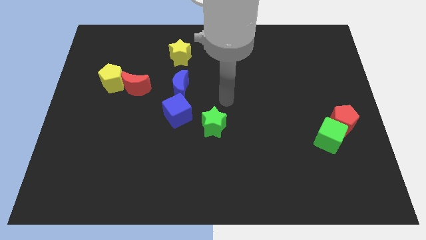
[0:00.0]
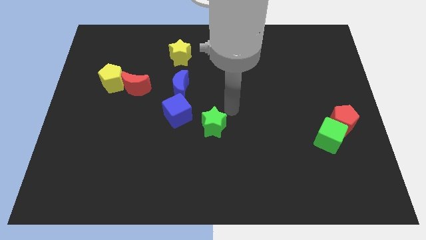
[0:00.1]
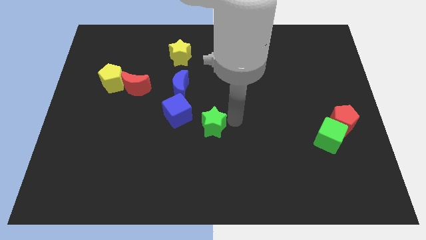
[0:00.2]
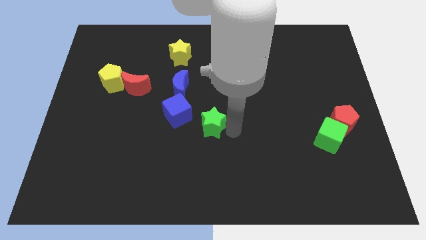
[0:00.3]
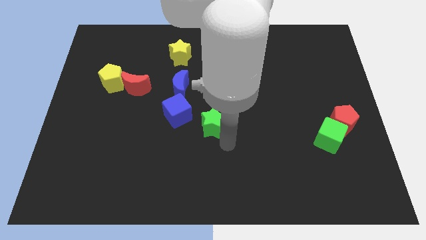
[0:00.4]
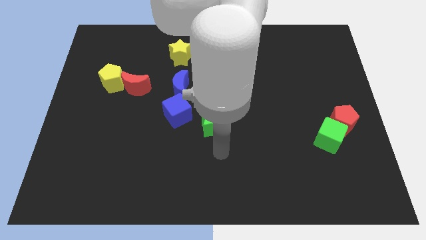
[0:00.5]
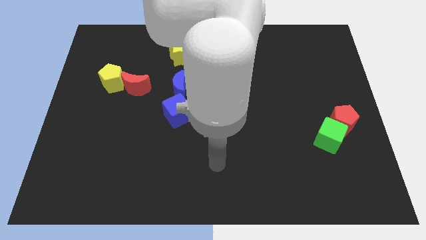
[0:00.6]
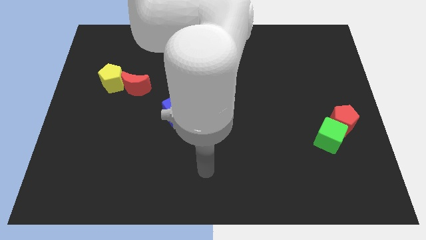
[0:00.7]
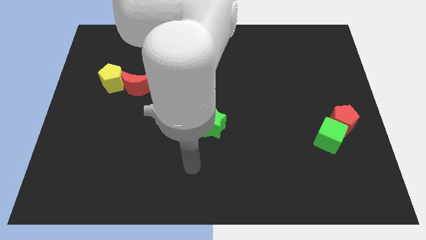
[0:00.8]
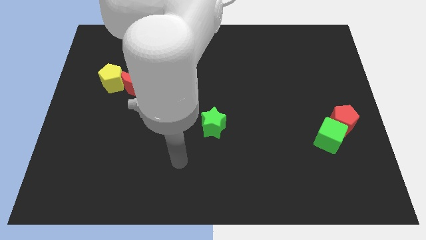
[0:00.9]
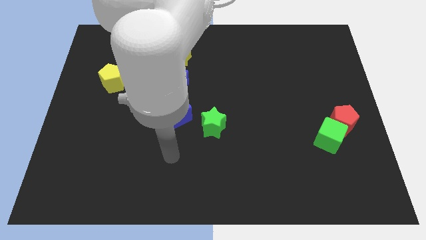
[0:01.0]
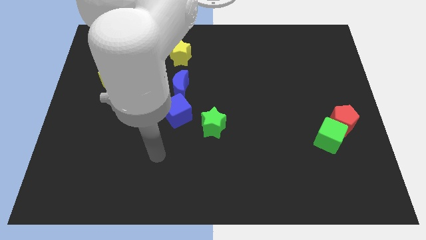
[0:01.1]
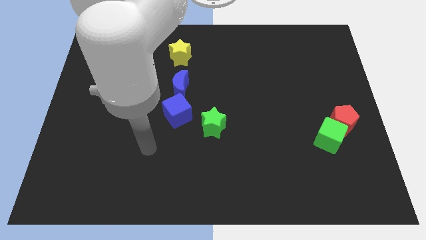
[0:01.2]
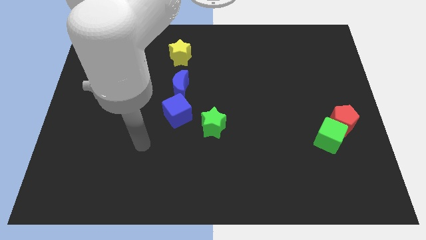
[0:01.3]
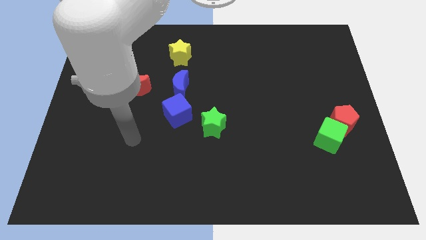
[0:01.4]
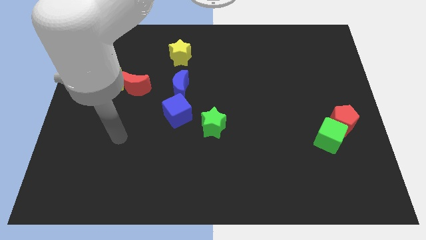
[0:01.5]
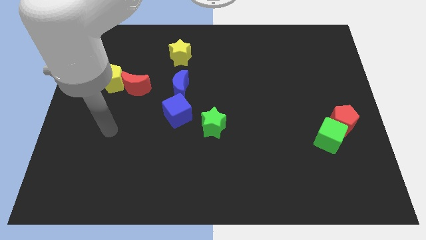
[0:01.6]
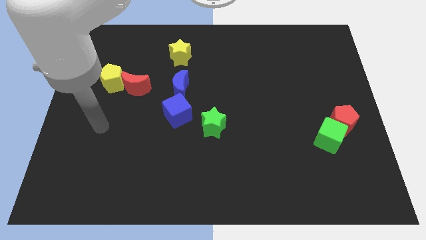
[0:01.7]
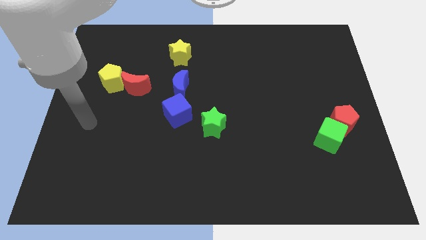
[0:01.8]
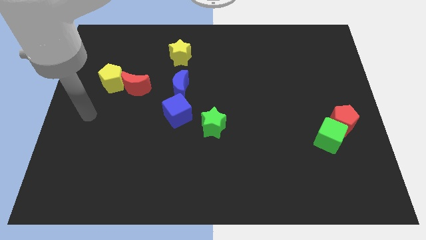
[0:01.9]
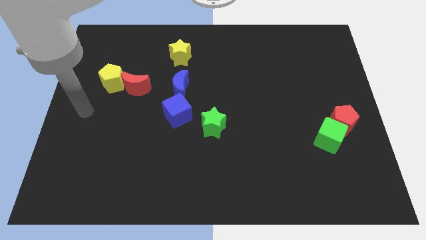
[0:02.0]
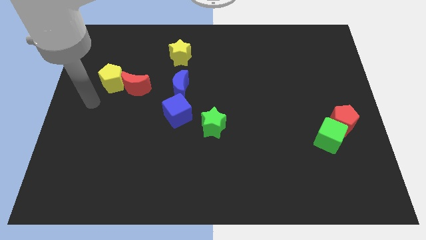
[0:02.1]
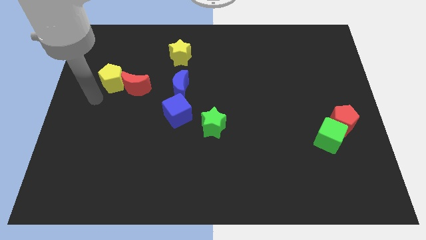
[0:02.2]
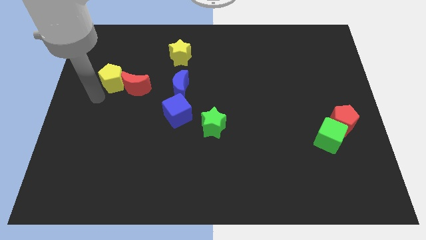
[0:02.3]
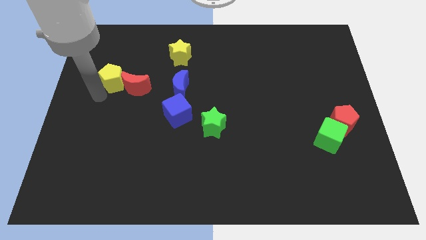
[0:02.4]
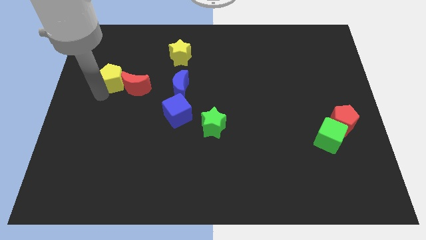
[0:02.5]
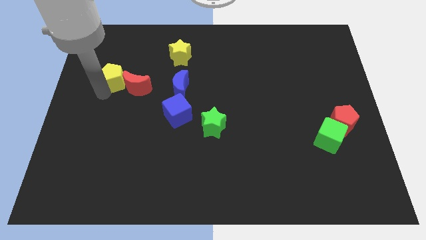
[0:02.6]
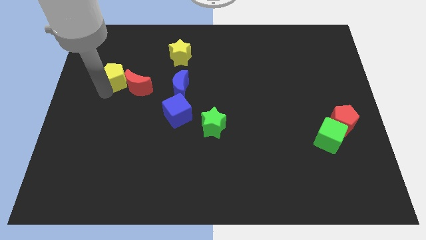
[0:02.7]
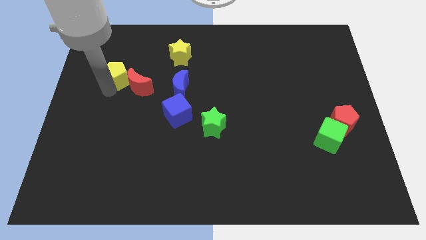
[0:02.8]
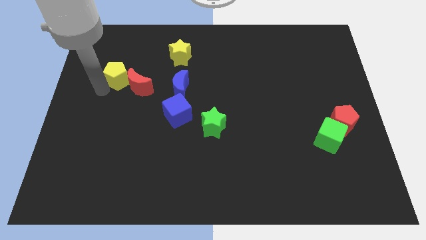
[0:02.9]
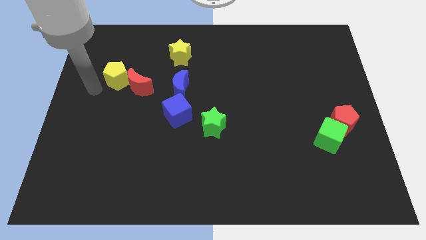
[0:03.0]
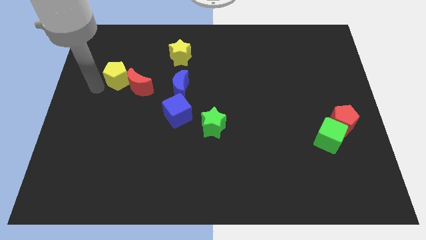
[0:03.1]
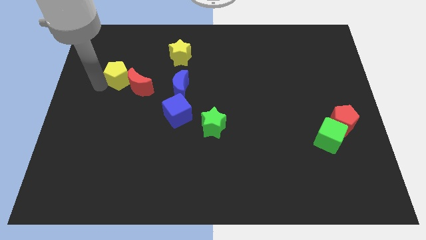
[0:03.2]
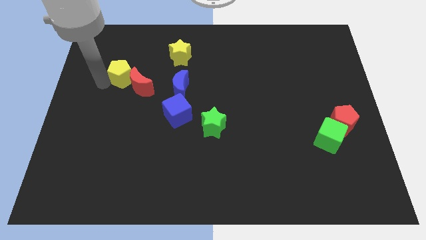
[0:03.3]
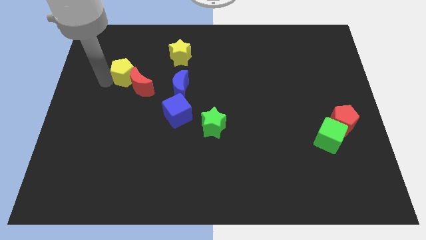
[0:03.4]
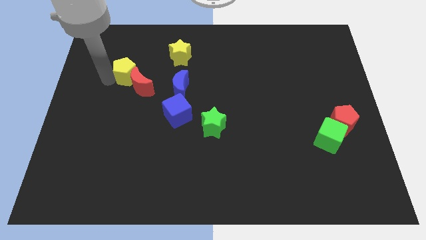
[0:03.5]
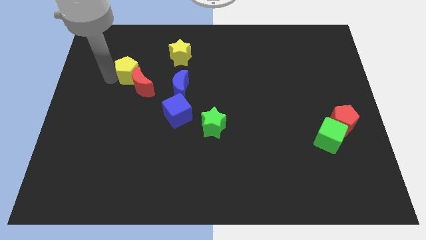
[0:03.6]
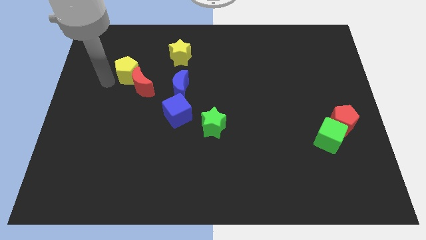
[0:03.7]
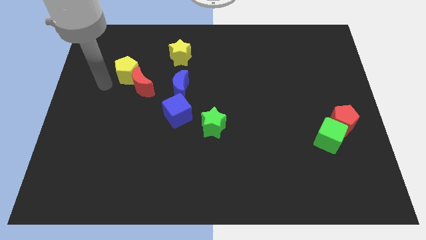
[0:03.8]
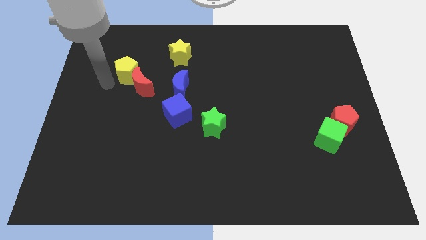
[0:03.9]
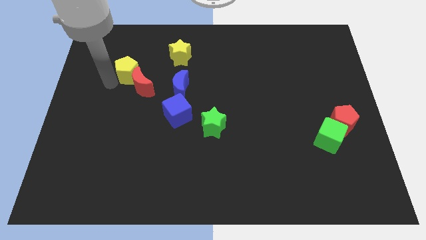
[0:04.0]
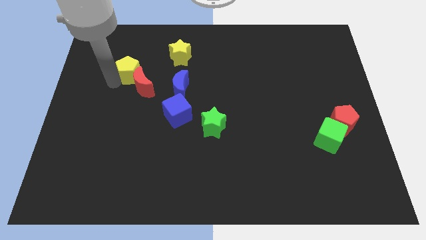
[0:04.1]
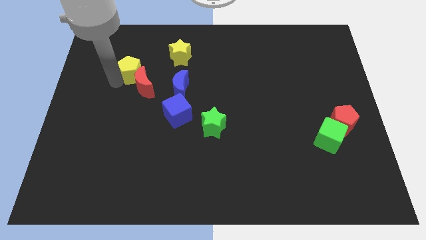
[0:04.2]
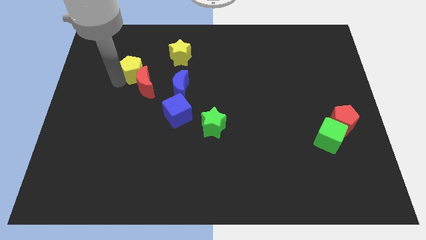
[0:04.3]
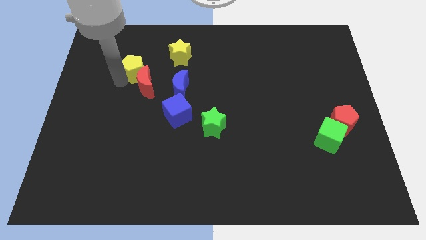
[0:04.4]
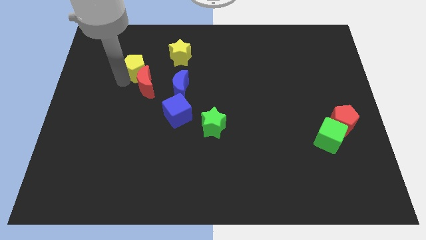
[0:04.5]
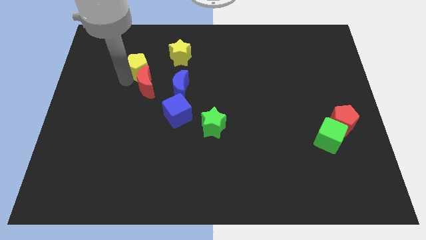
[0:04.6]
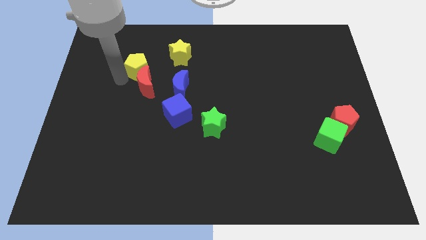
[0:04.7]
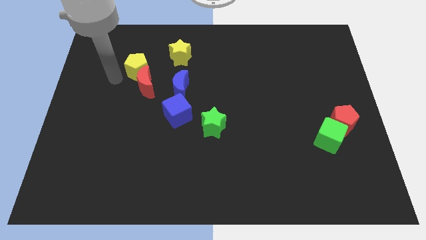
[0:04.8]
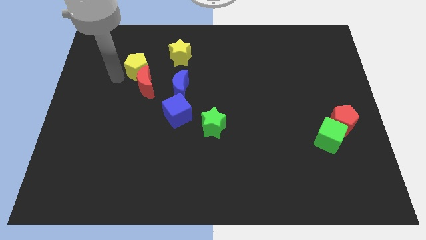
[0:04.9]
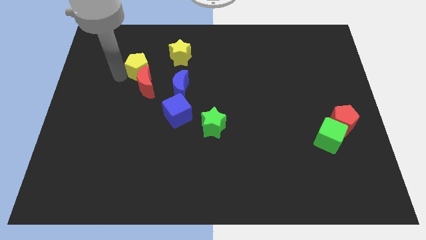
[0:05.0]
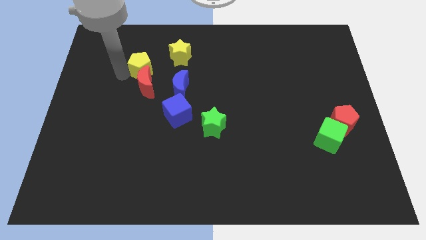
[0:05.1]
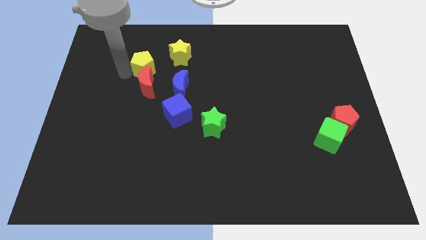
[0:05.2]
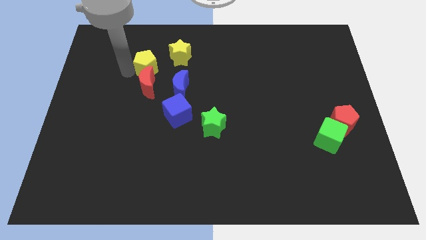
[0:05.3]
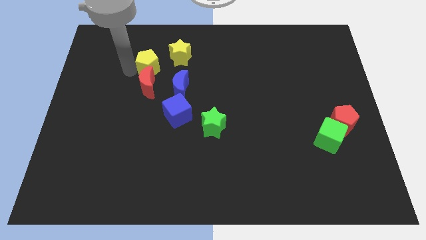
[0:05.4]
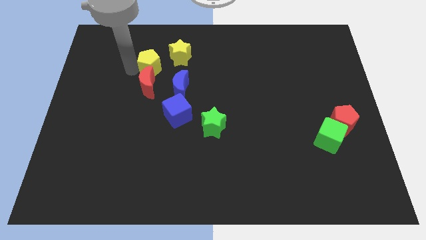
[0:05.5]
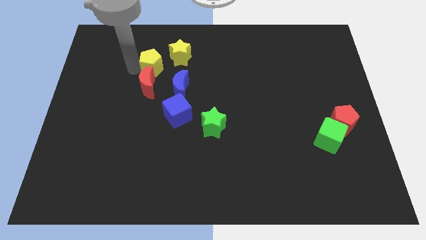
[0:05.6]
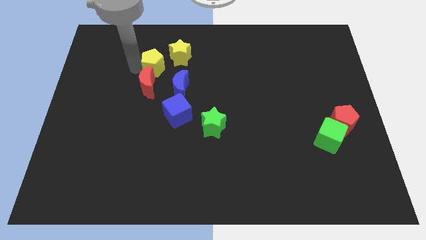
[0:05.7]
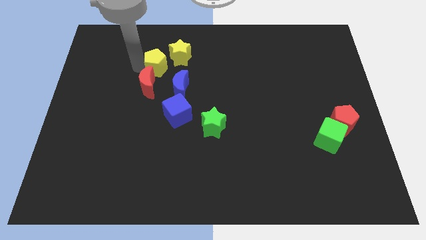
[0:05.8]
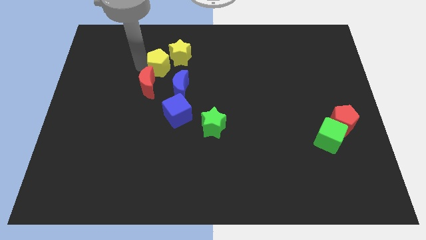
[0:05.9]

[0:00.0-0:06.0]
put the yellow pentagon towards the yellow star

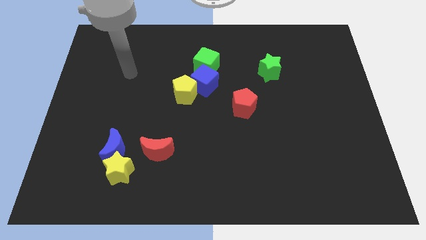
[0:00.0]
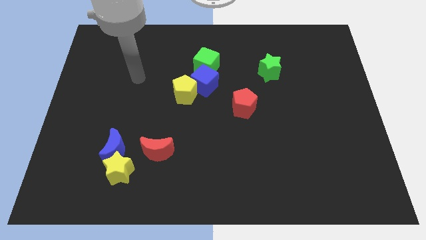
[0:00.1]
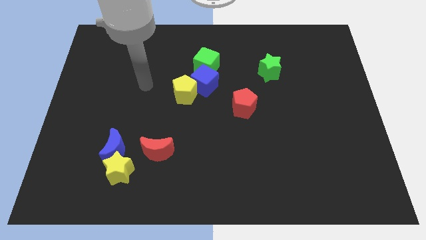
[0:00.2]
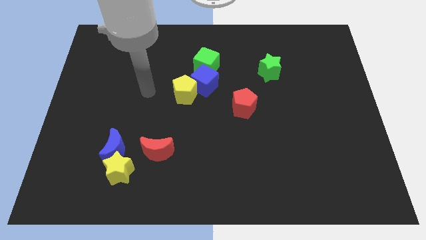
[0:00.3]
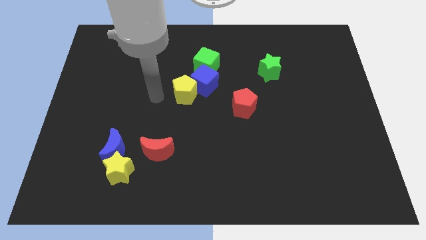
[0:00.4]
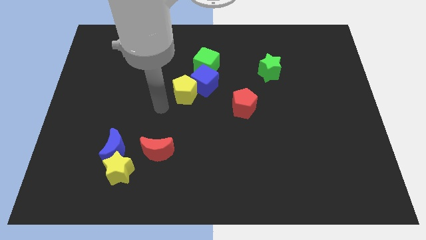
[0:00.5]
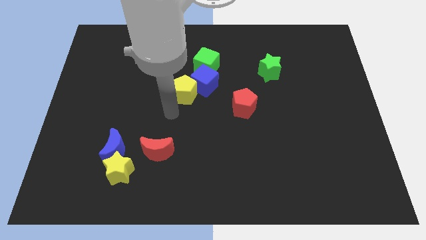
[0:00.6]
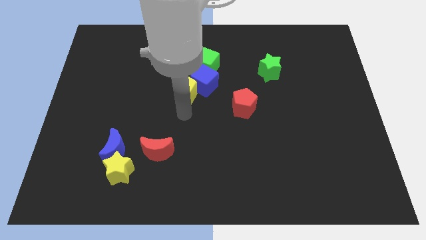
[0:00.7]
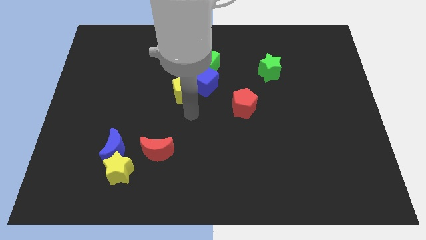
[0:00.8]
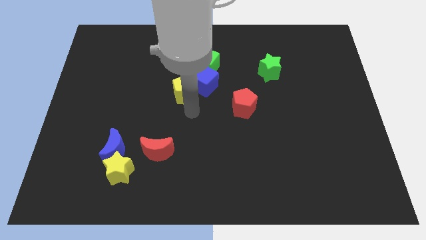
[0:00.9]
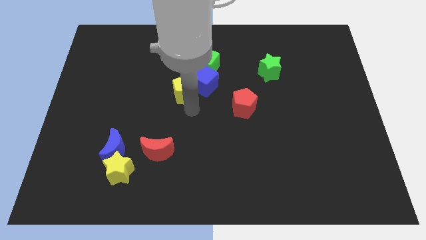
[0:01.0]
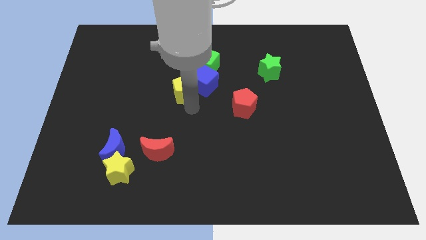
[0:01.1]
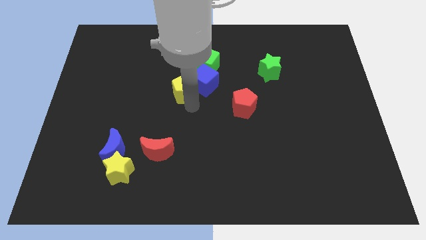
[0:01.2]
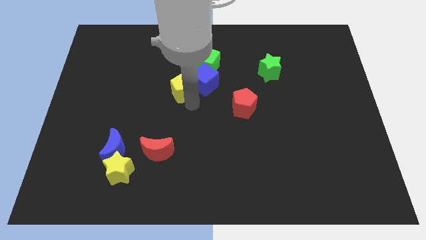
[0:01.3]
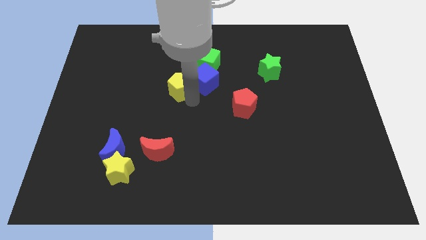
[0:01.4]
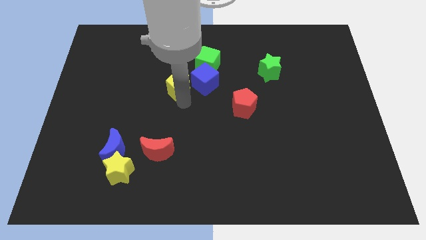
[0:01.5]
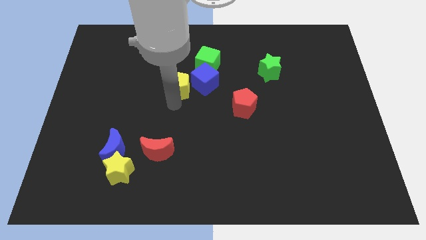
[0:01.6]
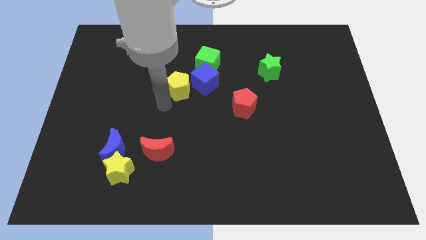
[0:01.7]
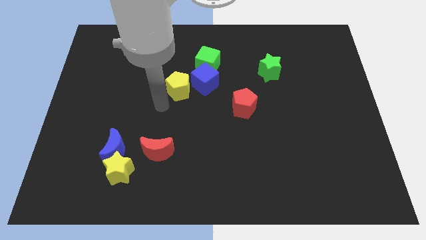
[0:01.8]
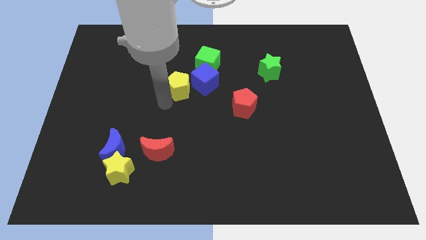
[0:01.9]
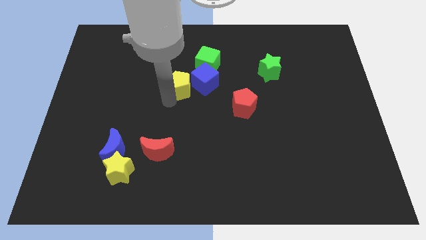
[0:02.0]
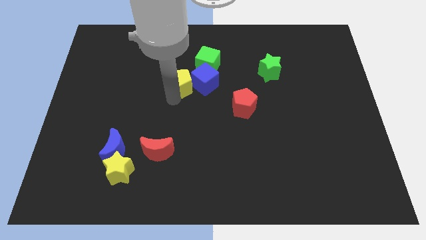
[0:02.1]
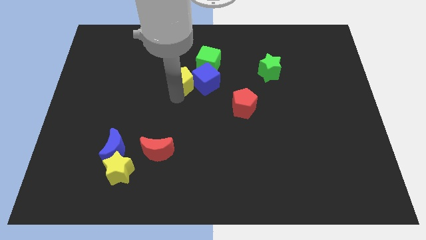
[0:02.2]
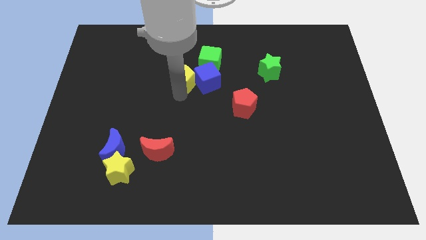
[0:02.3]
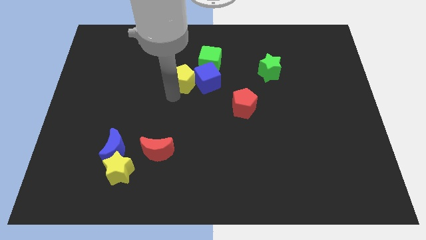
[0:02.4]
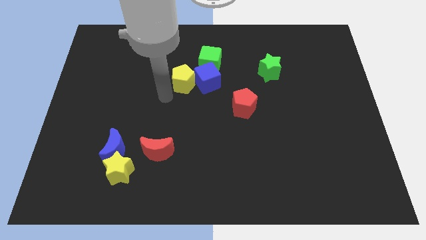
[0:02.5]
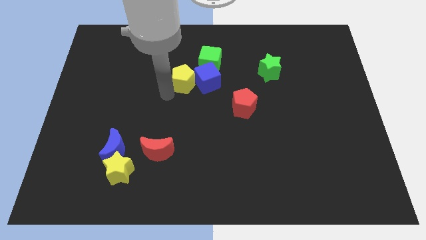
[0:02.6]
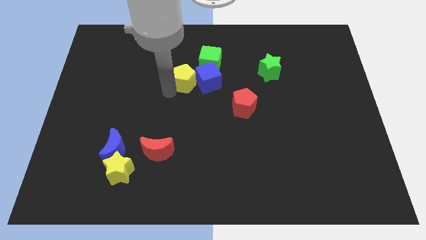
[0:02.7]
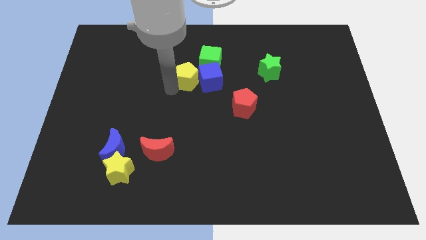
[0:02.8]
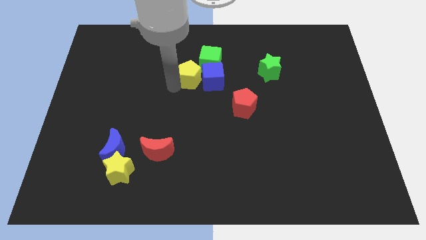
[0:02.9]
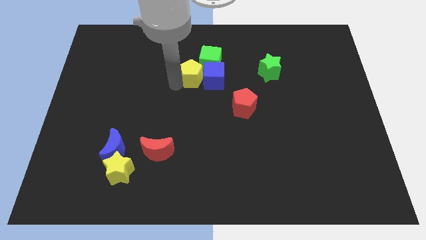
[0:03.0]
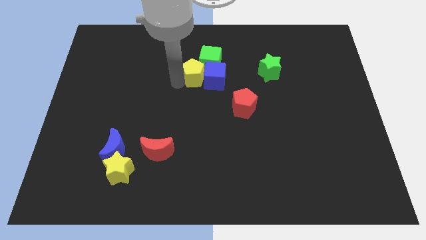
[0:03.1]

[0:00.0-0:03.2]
push the yellow pentagon to the green cube
